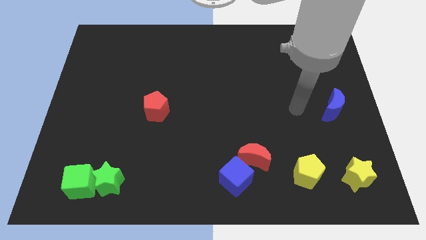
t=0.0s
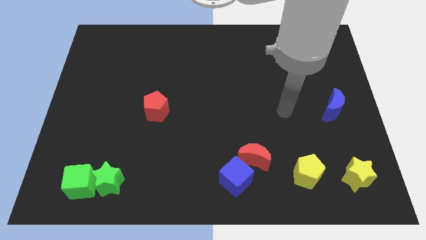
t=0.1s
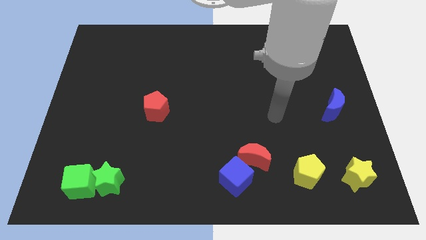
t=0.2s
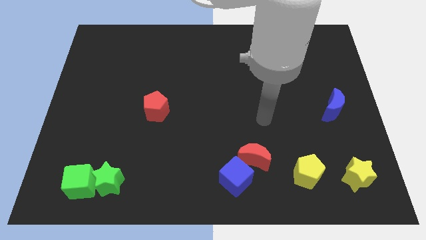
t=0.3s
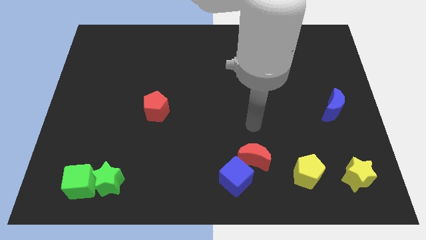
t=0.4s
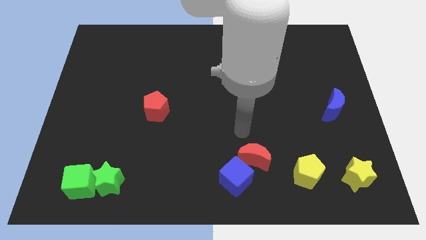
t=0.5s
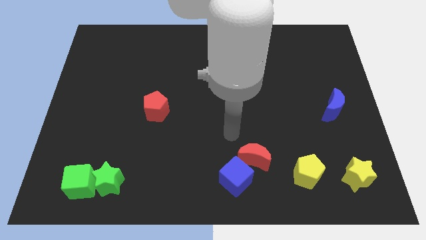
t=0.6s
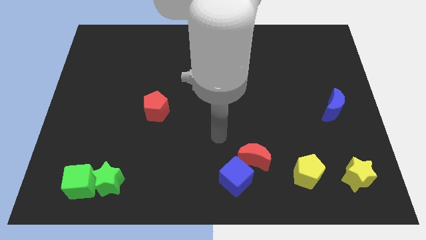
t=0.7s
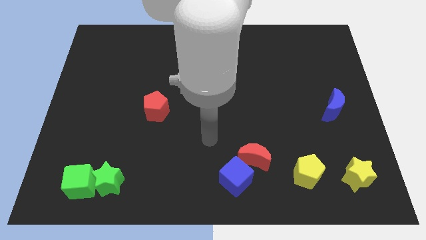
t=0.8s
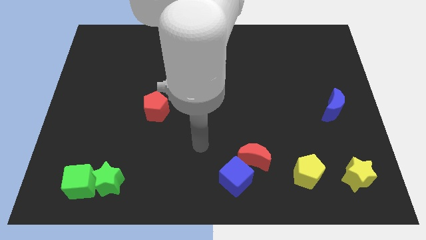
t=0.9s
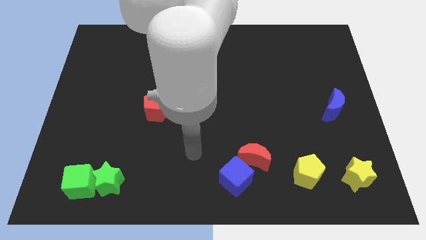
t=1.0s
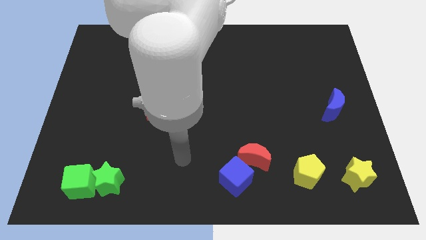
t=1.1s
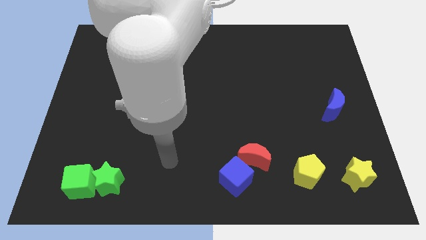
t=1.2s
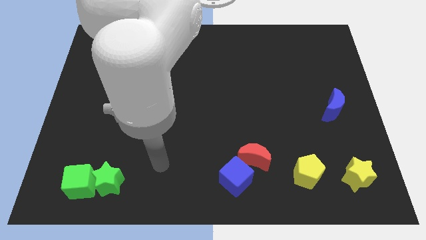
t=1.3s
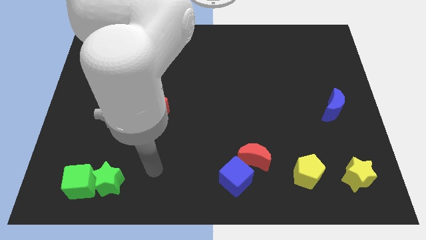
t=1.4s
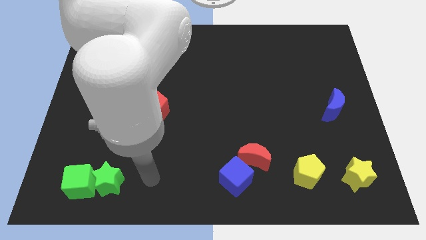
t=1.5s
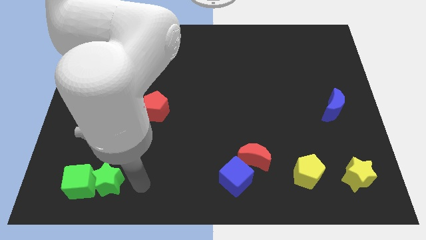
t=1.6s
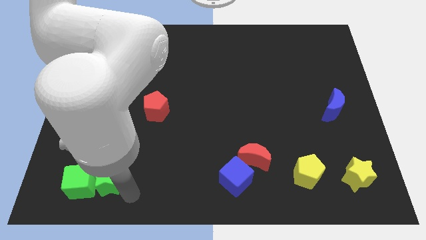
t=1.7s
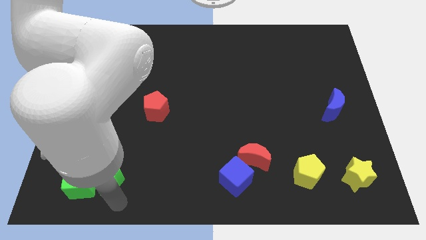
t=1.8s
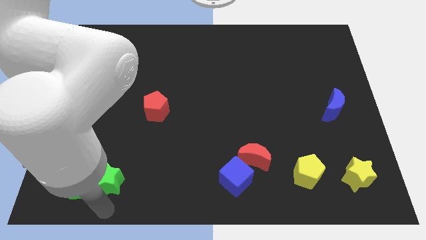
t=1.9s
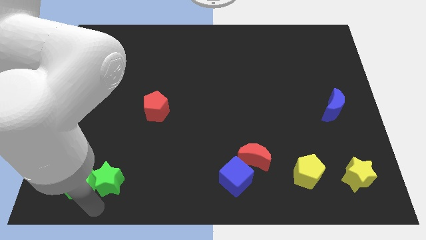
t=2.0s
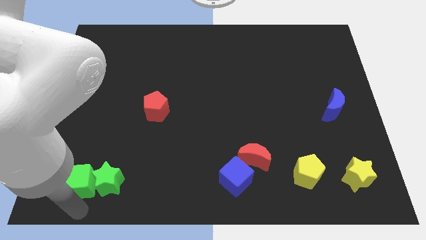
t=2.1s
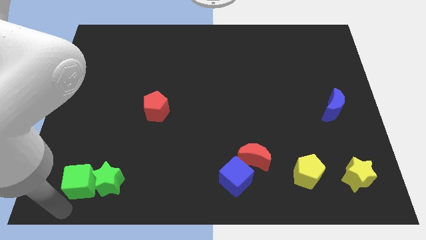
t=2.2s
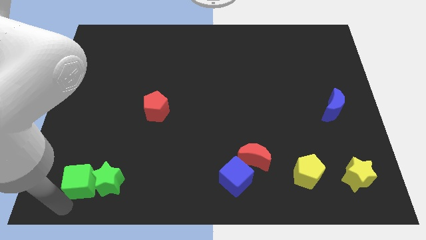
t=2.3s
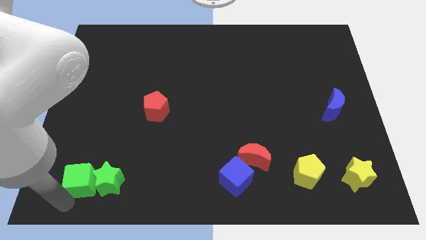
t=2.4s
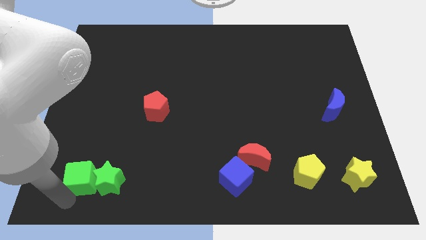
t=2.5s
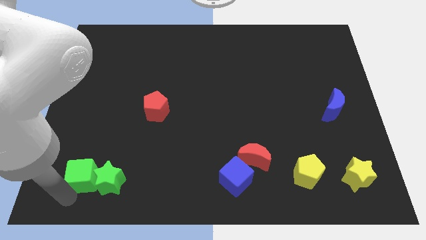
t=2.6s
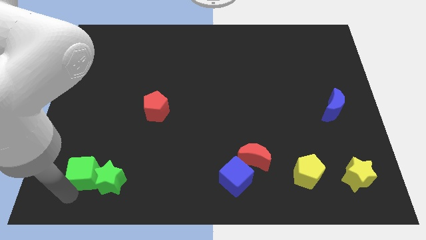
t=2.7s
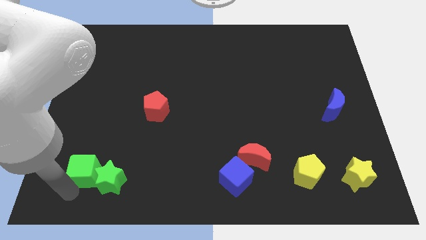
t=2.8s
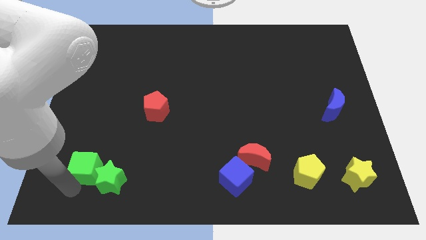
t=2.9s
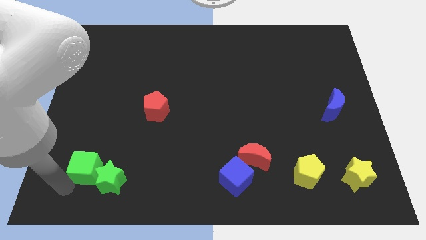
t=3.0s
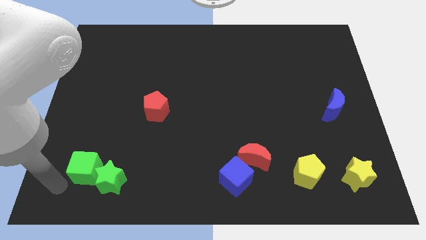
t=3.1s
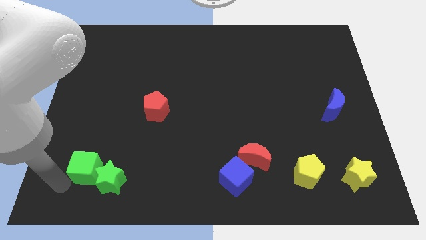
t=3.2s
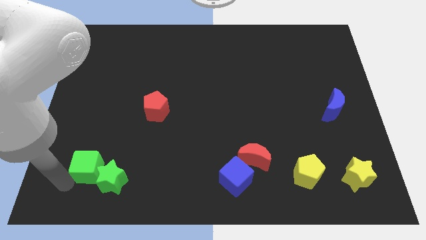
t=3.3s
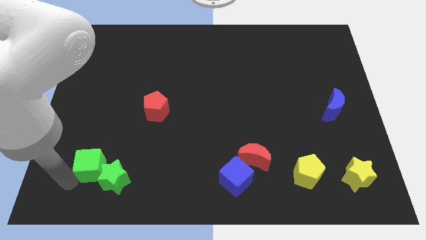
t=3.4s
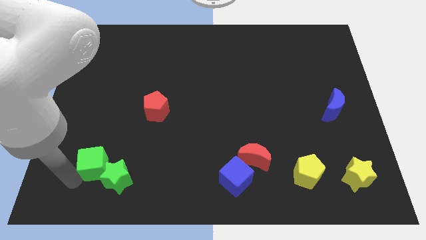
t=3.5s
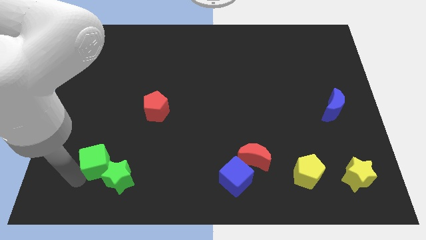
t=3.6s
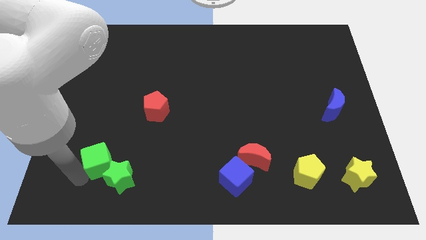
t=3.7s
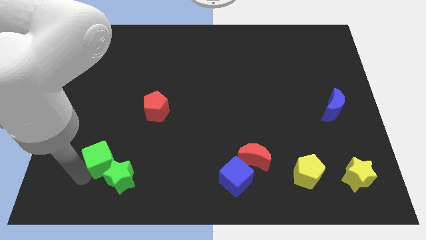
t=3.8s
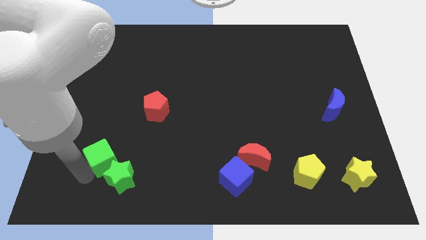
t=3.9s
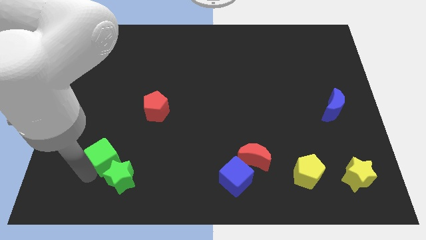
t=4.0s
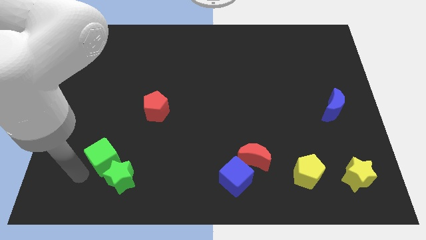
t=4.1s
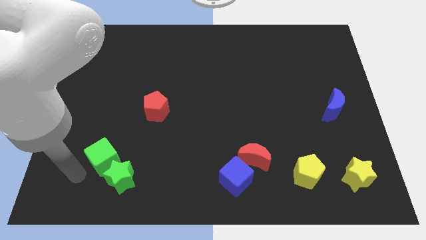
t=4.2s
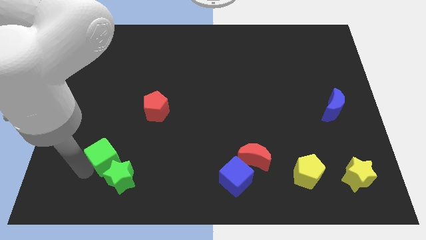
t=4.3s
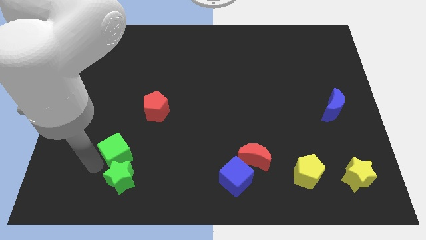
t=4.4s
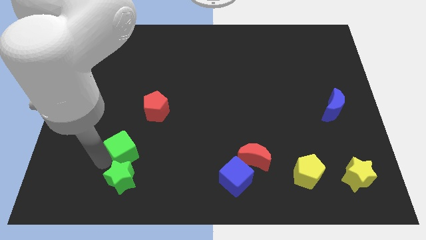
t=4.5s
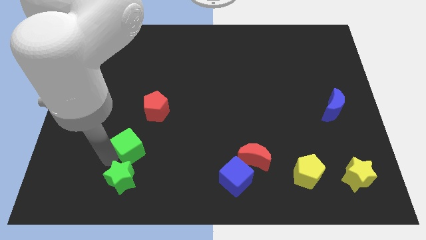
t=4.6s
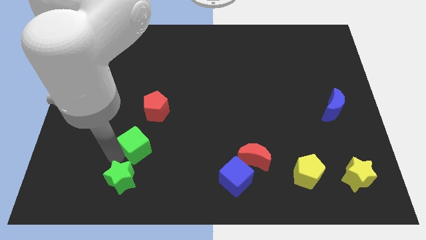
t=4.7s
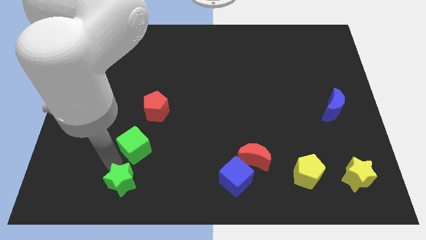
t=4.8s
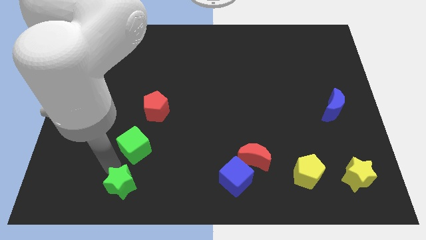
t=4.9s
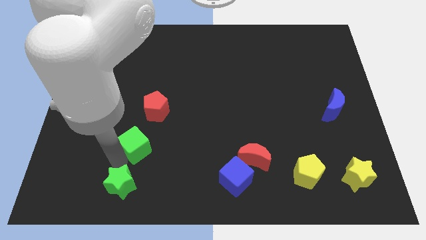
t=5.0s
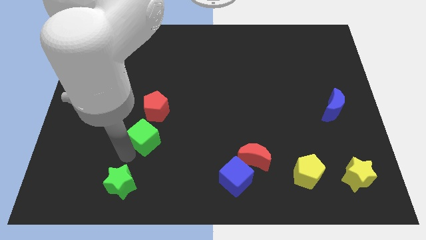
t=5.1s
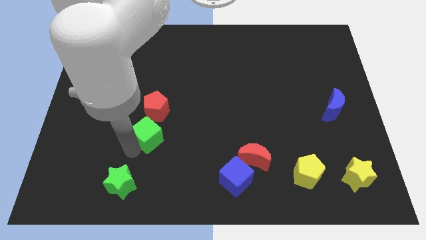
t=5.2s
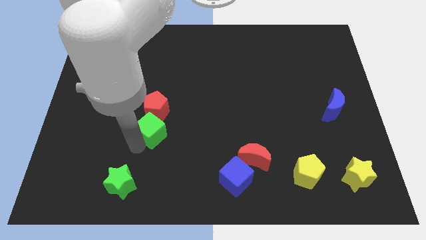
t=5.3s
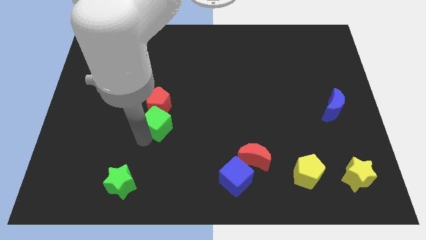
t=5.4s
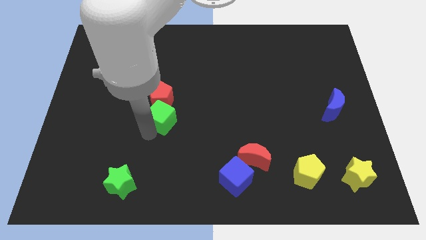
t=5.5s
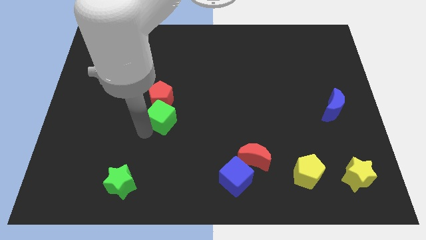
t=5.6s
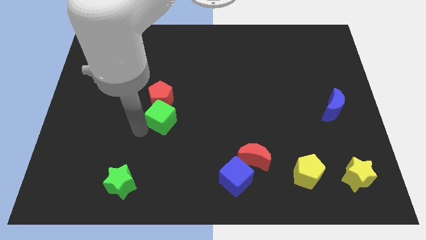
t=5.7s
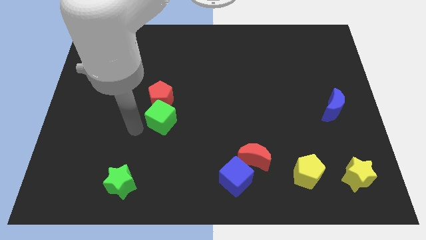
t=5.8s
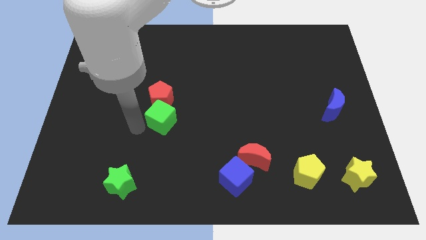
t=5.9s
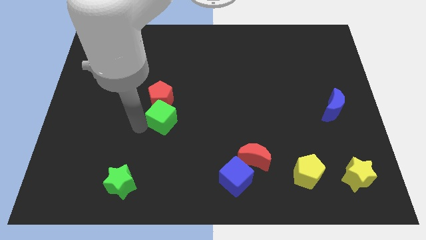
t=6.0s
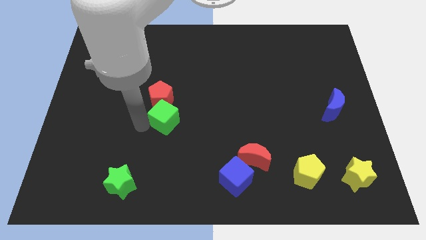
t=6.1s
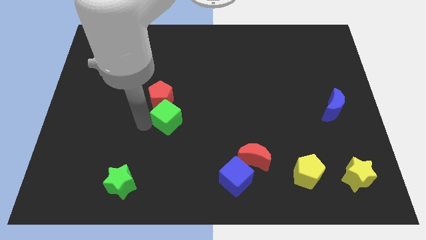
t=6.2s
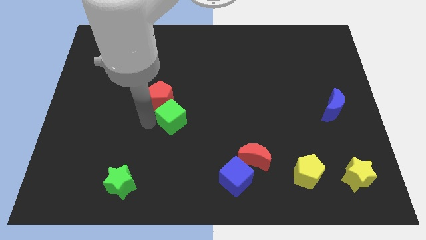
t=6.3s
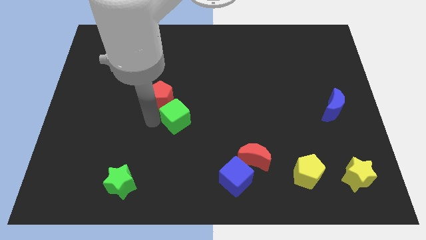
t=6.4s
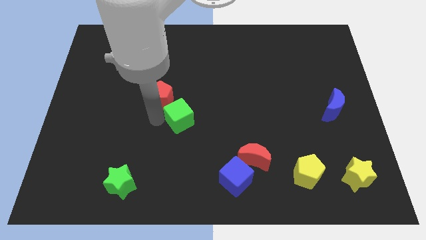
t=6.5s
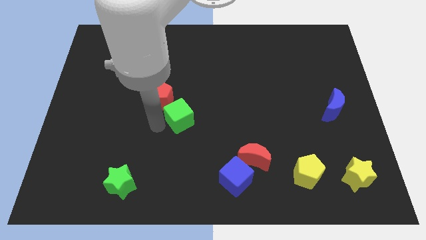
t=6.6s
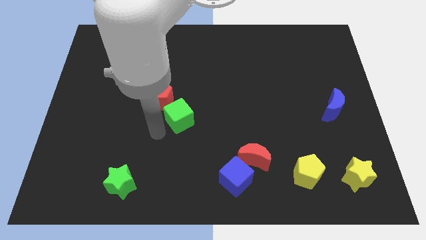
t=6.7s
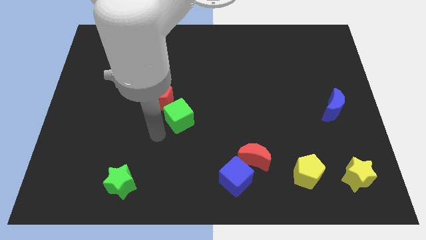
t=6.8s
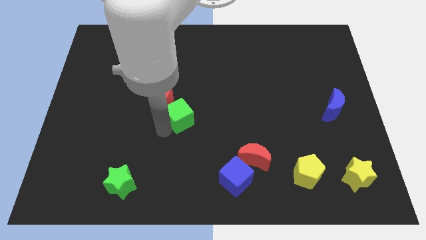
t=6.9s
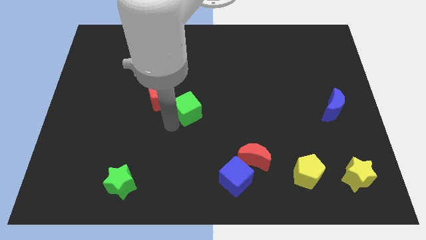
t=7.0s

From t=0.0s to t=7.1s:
push the green cube just right of the red pentagon

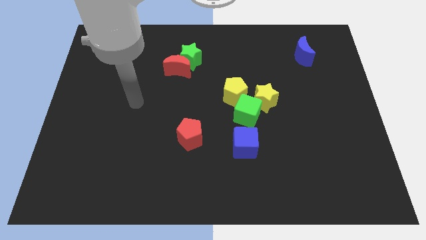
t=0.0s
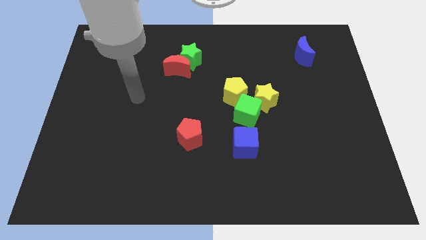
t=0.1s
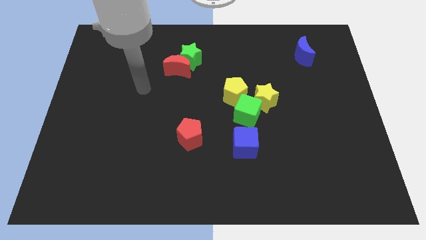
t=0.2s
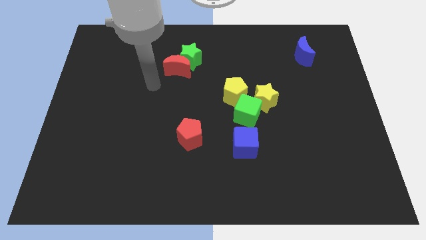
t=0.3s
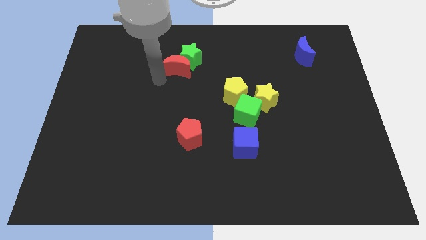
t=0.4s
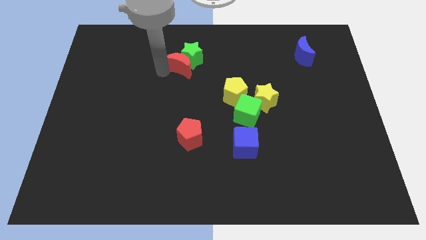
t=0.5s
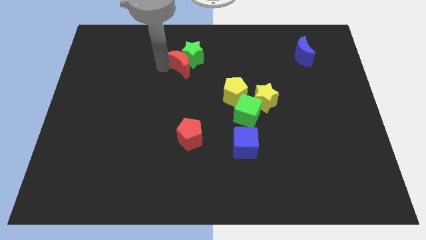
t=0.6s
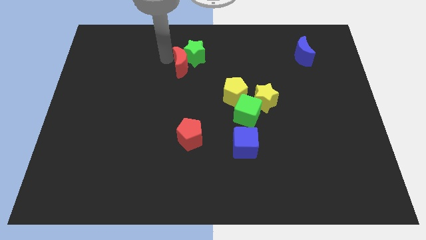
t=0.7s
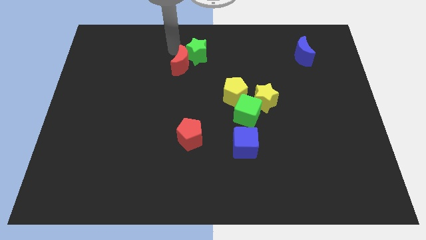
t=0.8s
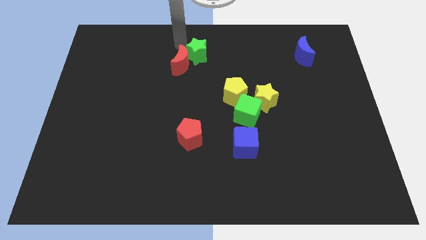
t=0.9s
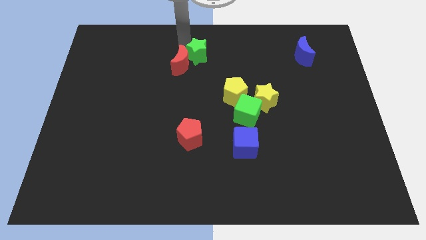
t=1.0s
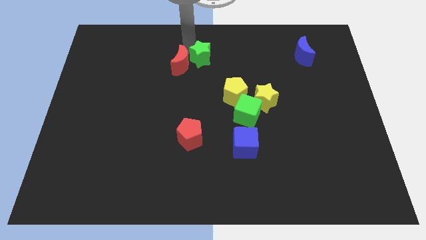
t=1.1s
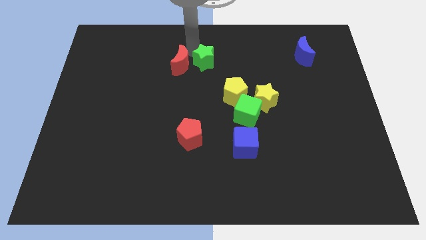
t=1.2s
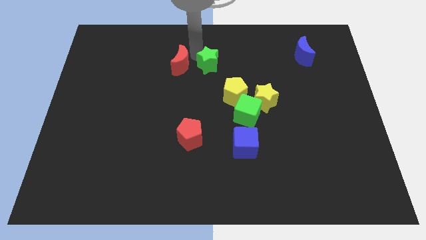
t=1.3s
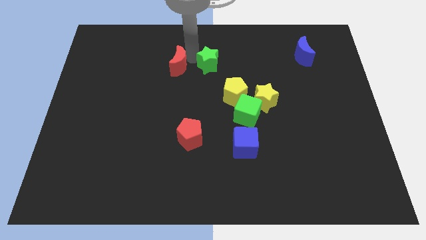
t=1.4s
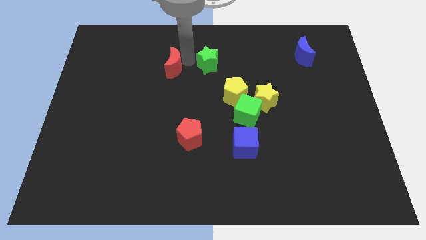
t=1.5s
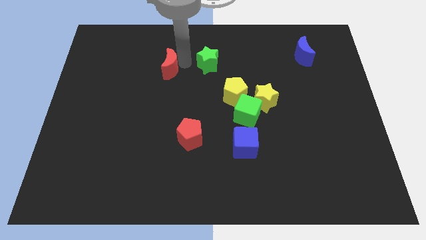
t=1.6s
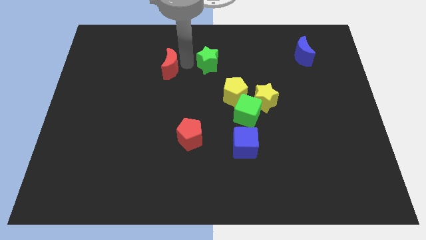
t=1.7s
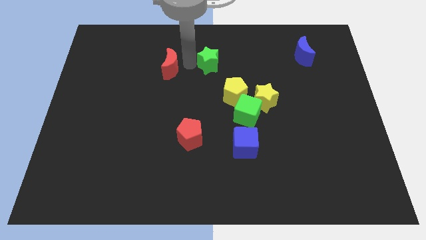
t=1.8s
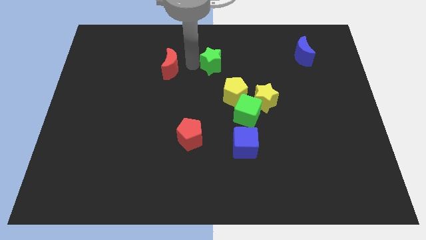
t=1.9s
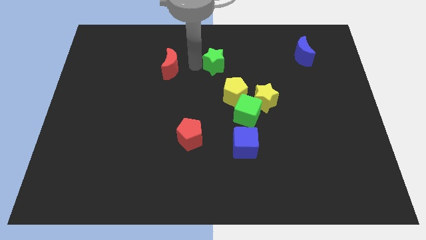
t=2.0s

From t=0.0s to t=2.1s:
slide the green star to the top of the yellow pentagon
